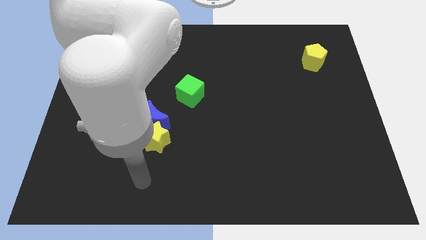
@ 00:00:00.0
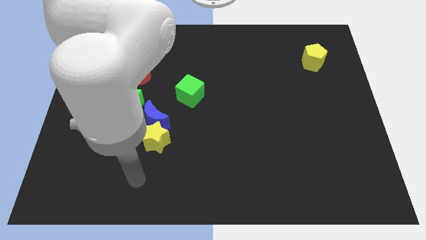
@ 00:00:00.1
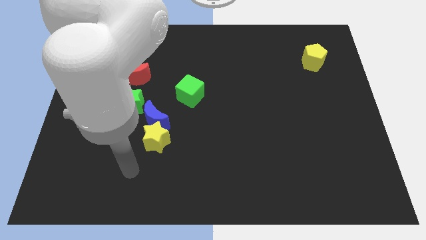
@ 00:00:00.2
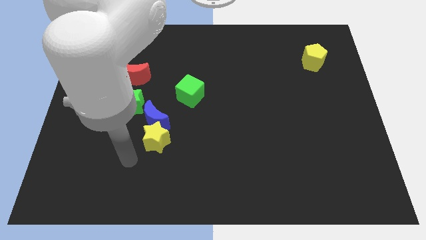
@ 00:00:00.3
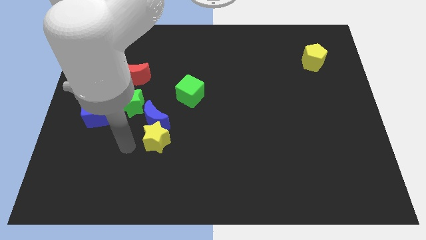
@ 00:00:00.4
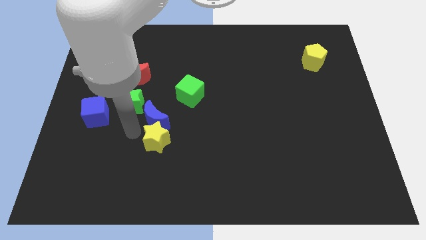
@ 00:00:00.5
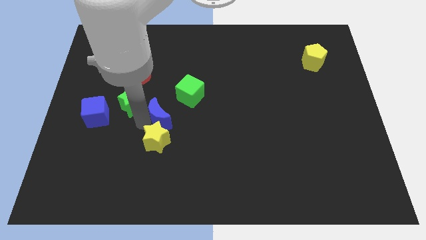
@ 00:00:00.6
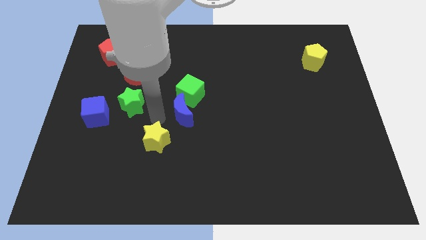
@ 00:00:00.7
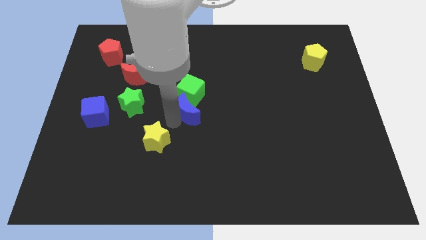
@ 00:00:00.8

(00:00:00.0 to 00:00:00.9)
move the yellow star away from the blue moon

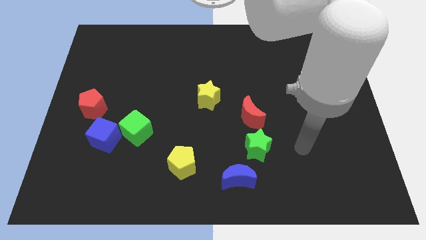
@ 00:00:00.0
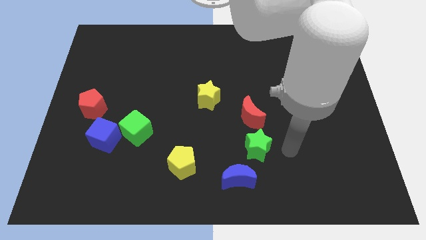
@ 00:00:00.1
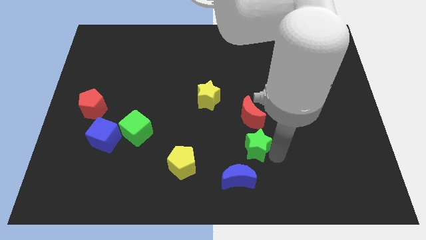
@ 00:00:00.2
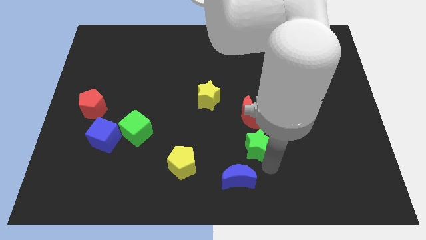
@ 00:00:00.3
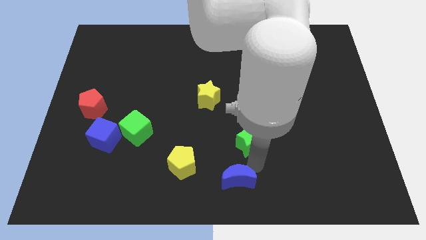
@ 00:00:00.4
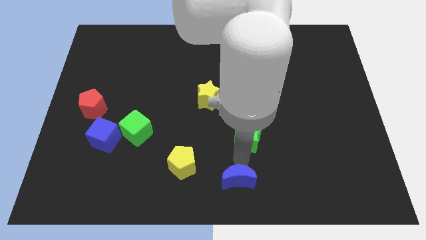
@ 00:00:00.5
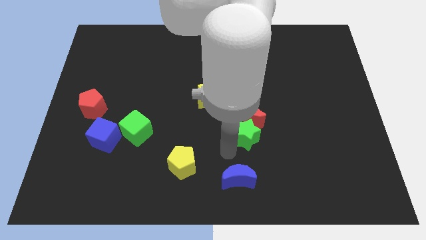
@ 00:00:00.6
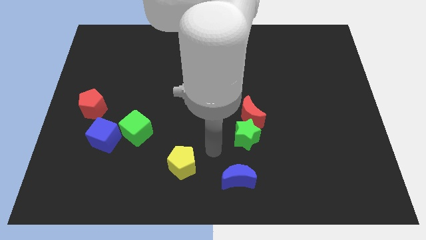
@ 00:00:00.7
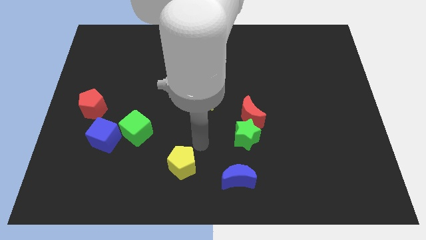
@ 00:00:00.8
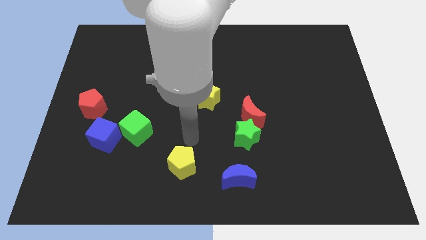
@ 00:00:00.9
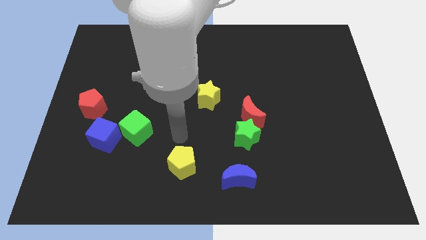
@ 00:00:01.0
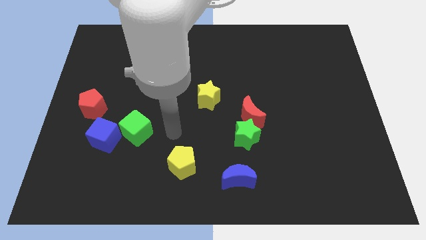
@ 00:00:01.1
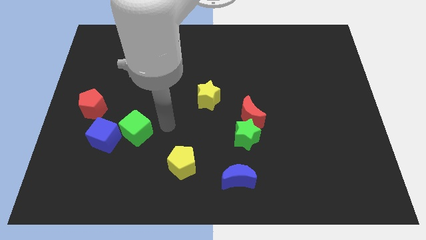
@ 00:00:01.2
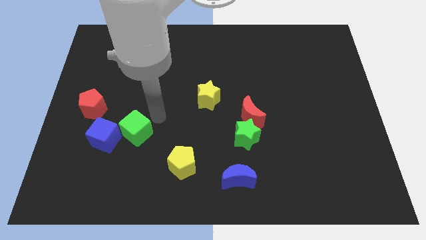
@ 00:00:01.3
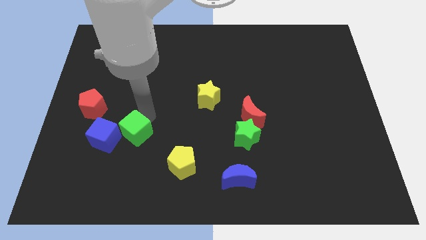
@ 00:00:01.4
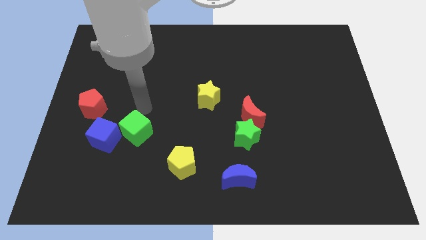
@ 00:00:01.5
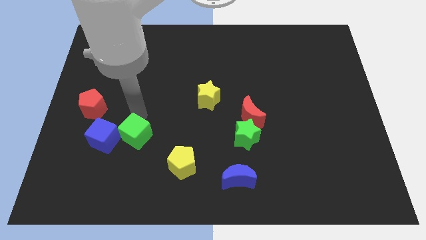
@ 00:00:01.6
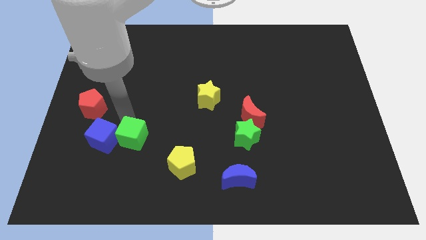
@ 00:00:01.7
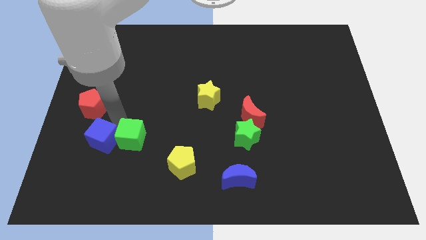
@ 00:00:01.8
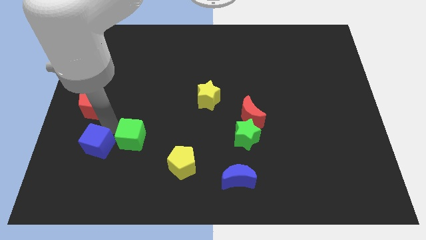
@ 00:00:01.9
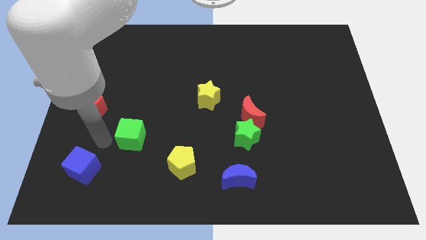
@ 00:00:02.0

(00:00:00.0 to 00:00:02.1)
move the green cube away from the blue cube

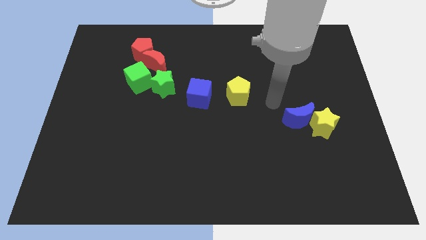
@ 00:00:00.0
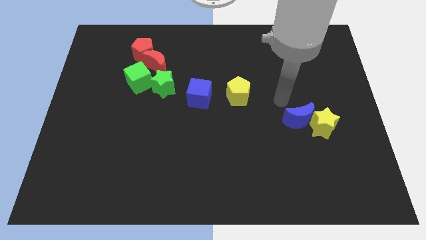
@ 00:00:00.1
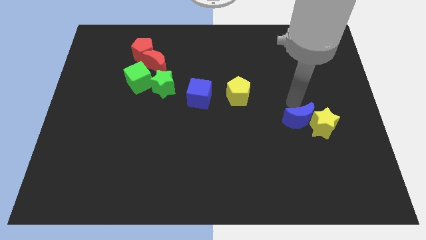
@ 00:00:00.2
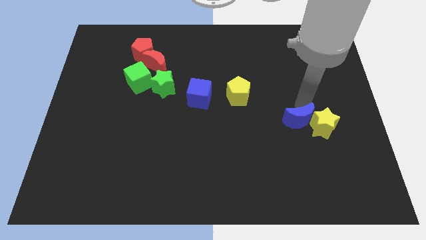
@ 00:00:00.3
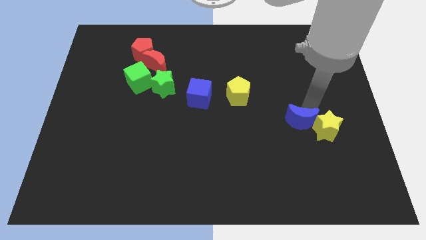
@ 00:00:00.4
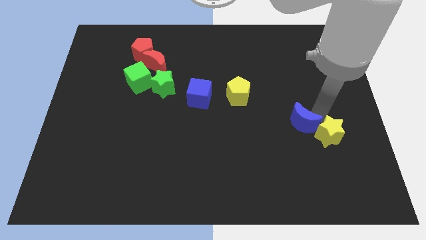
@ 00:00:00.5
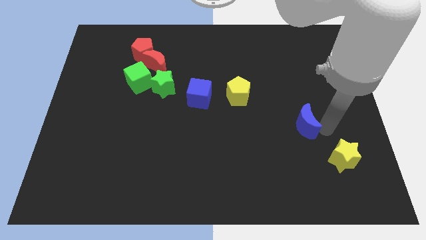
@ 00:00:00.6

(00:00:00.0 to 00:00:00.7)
pull the blue moon apart from the yellow star

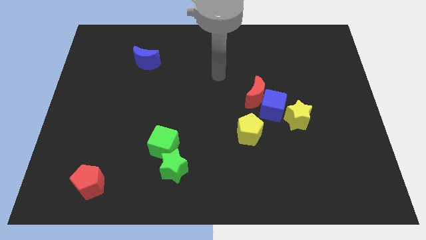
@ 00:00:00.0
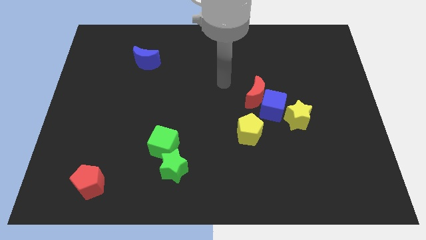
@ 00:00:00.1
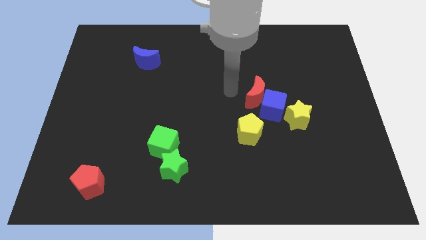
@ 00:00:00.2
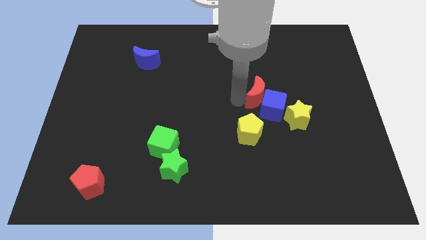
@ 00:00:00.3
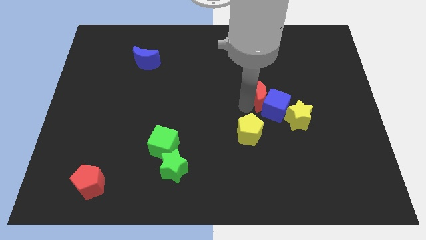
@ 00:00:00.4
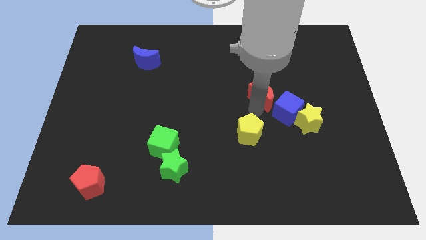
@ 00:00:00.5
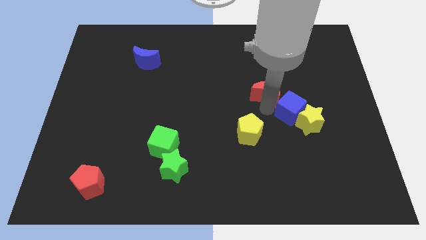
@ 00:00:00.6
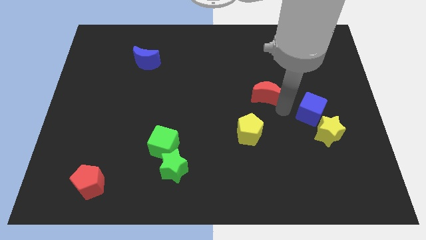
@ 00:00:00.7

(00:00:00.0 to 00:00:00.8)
move the red moon away from the blue cube

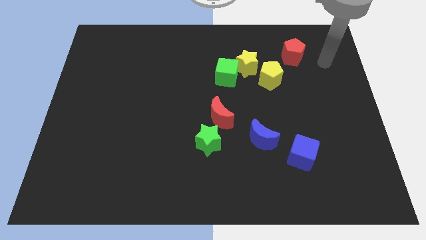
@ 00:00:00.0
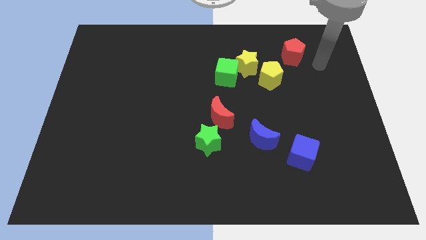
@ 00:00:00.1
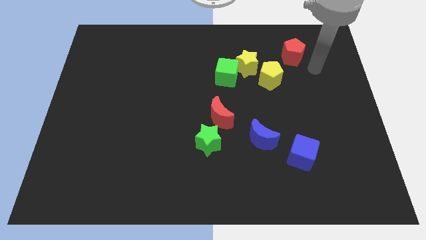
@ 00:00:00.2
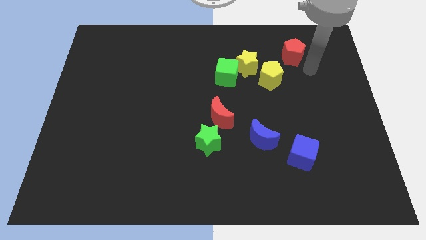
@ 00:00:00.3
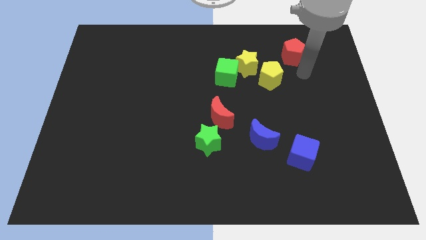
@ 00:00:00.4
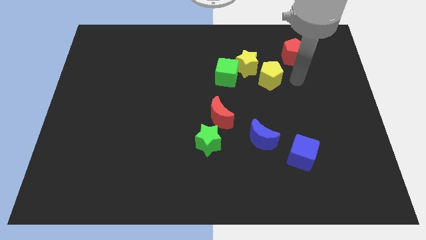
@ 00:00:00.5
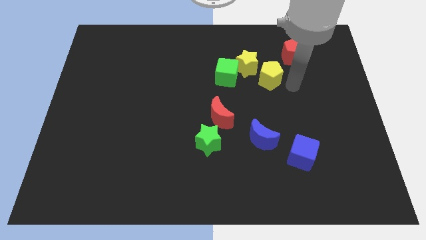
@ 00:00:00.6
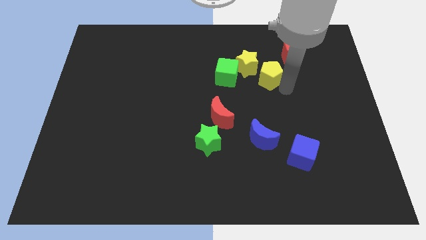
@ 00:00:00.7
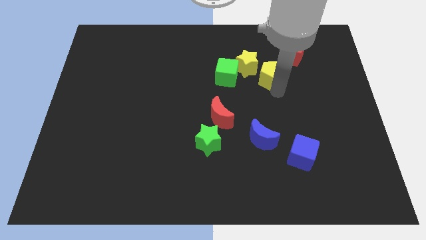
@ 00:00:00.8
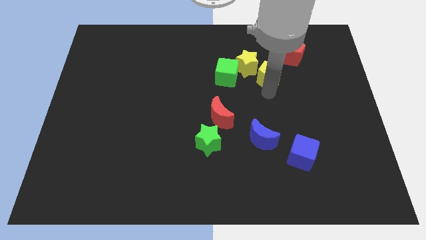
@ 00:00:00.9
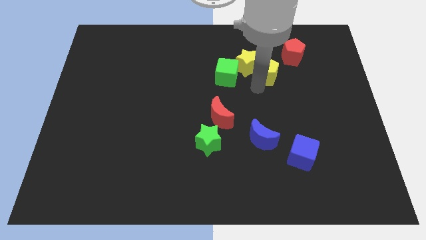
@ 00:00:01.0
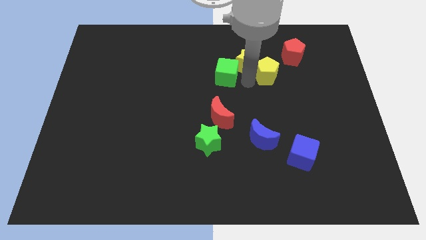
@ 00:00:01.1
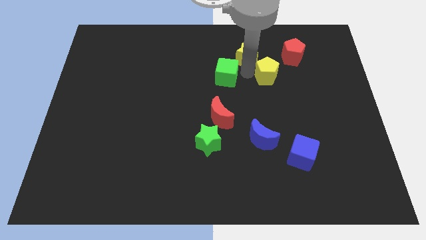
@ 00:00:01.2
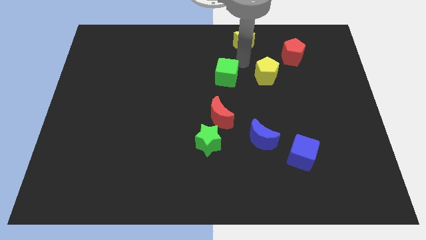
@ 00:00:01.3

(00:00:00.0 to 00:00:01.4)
pull the green cube apart from the yellow star

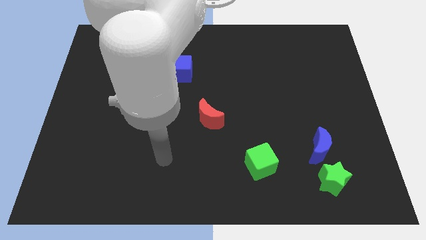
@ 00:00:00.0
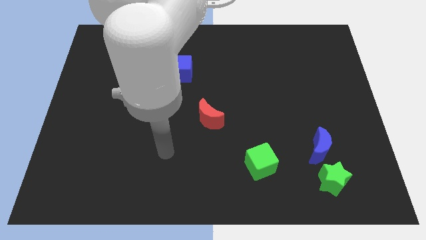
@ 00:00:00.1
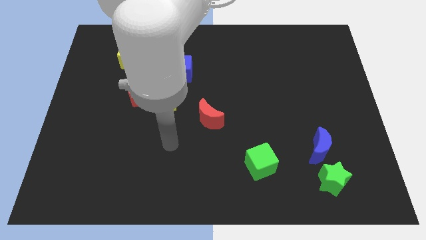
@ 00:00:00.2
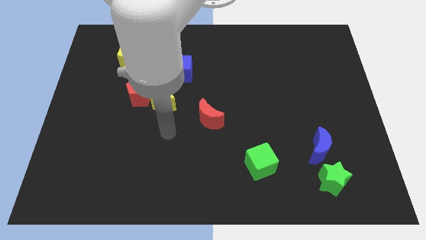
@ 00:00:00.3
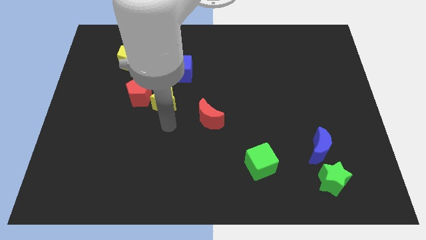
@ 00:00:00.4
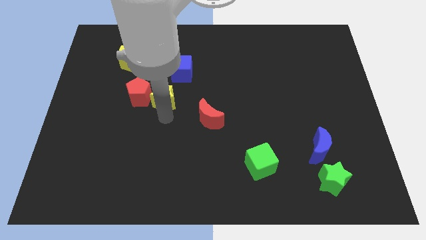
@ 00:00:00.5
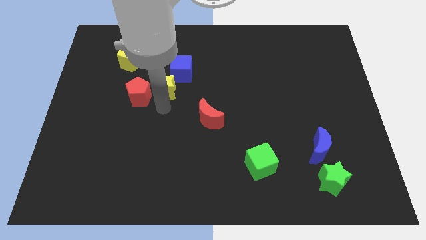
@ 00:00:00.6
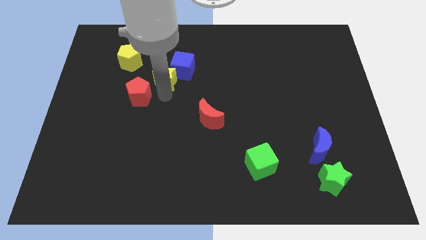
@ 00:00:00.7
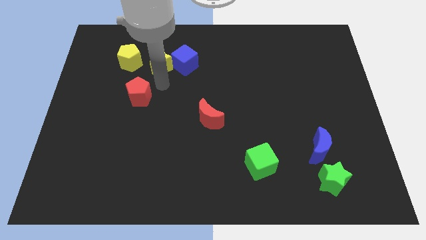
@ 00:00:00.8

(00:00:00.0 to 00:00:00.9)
pull the red pentagon apart from the yellow star

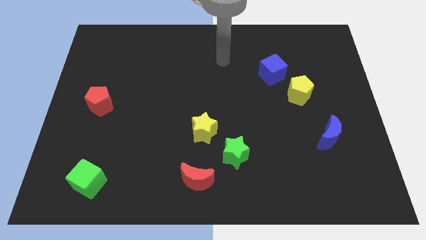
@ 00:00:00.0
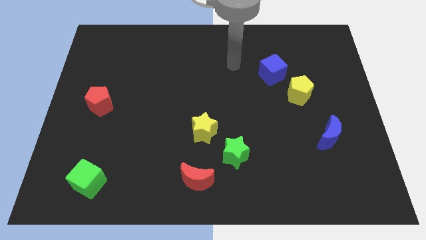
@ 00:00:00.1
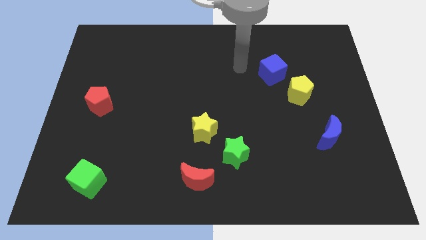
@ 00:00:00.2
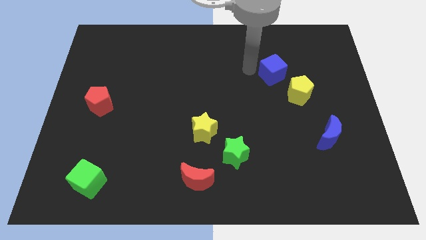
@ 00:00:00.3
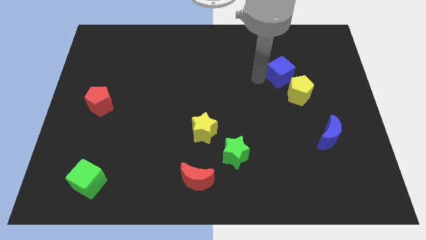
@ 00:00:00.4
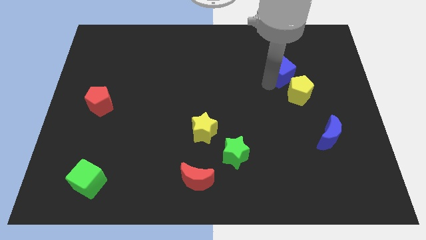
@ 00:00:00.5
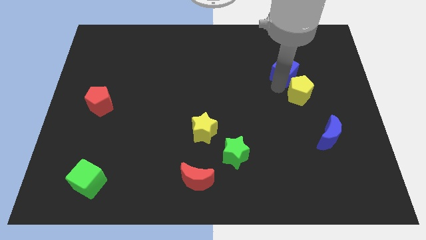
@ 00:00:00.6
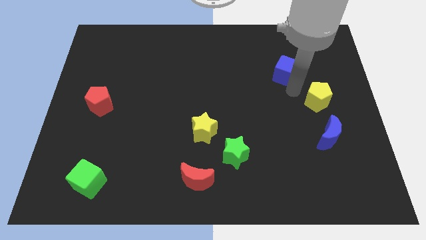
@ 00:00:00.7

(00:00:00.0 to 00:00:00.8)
pull the blue cube apart from the yellow pentagon

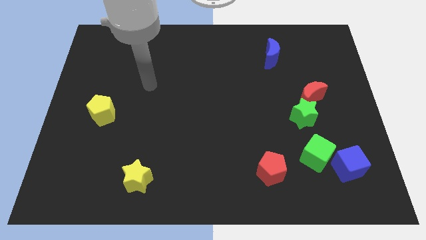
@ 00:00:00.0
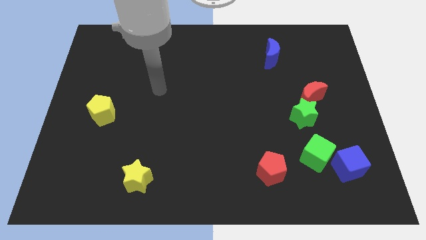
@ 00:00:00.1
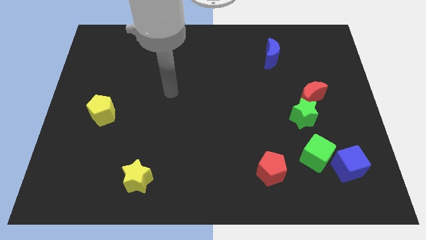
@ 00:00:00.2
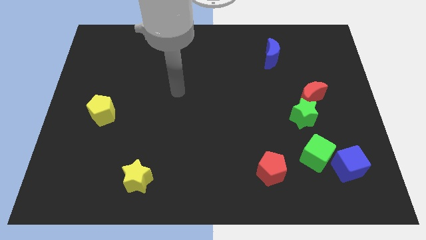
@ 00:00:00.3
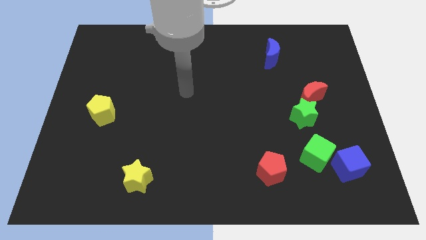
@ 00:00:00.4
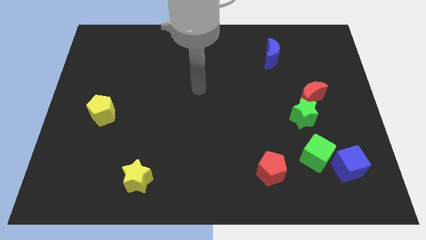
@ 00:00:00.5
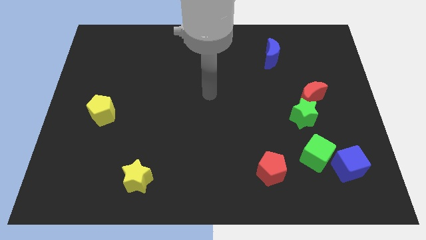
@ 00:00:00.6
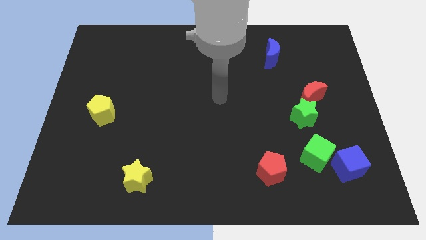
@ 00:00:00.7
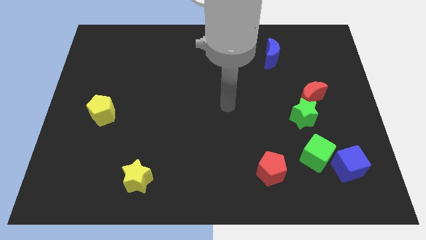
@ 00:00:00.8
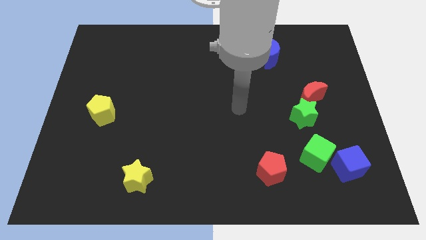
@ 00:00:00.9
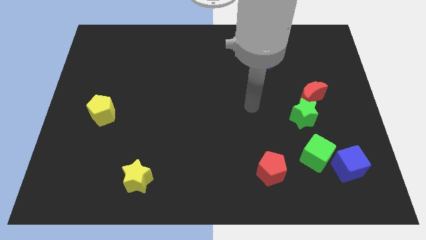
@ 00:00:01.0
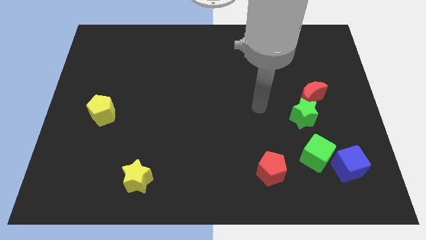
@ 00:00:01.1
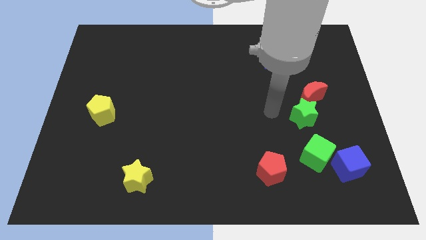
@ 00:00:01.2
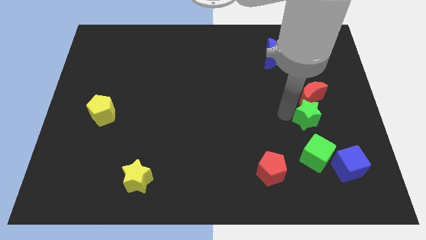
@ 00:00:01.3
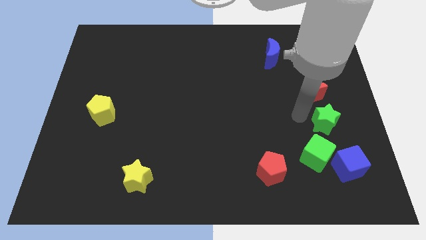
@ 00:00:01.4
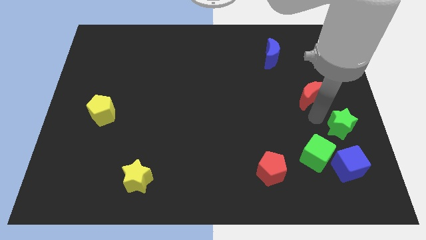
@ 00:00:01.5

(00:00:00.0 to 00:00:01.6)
separate the red moon from the green star

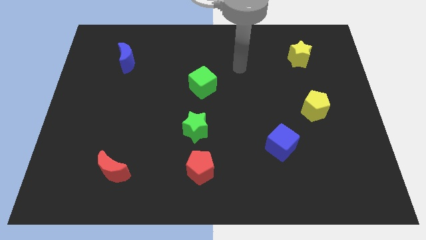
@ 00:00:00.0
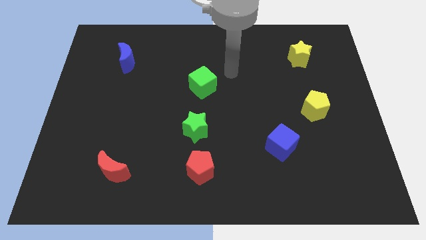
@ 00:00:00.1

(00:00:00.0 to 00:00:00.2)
separate the red pentagon from the green star
